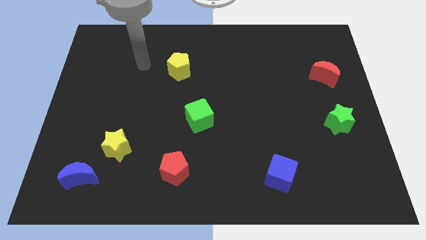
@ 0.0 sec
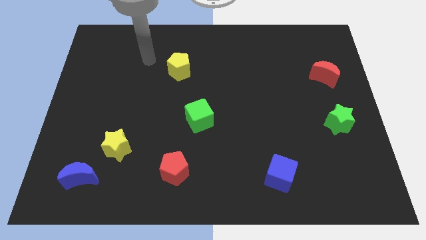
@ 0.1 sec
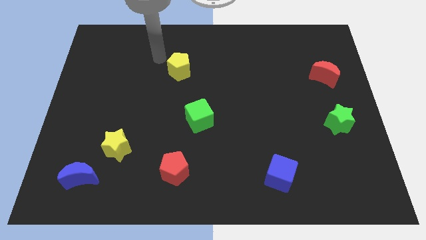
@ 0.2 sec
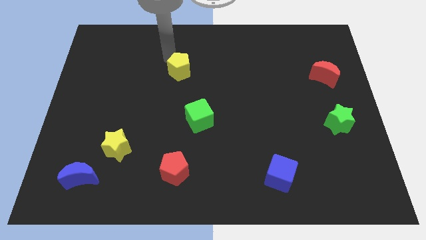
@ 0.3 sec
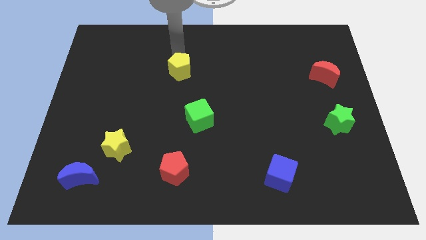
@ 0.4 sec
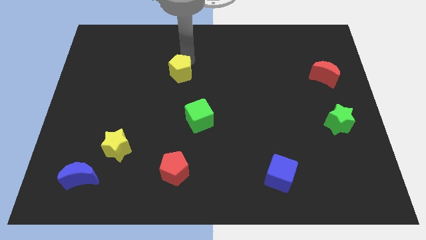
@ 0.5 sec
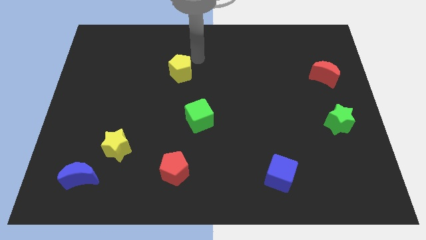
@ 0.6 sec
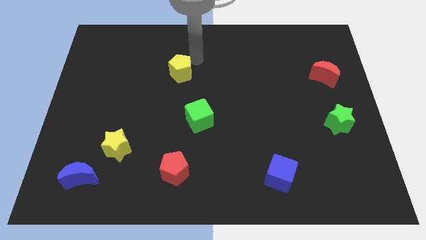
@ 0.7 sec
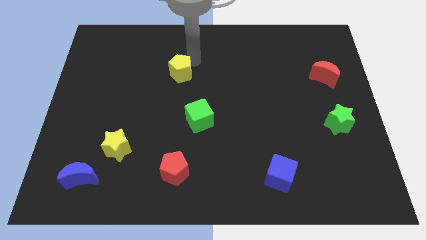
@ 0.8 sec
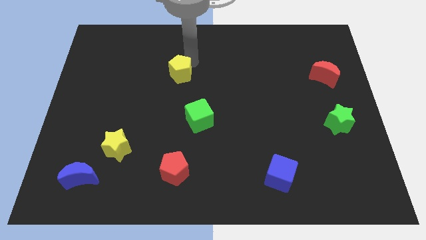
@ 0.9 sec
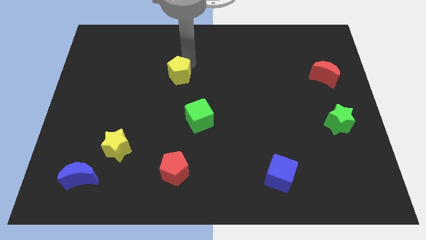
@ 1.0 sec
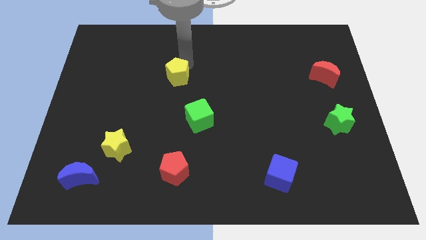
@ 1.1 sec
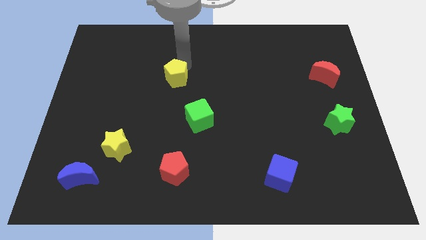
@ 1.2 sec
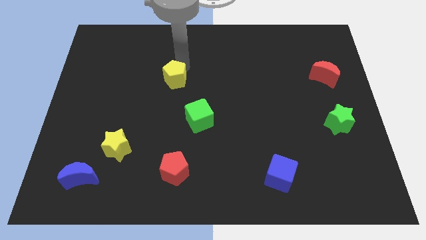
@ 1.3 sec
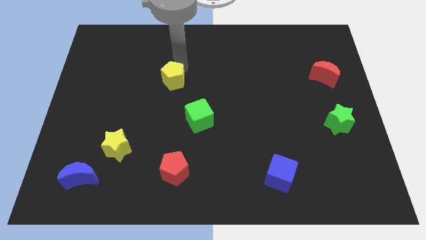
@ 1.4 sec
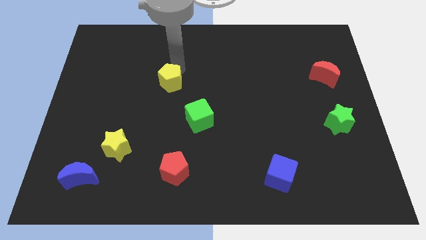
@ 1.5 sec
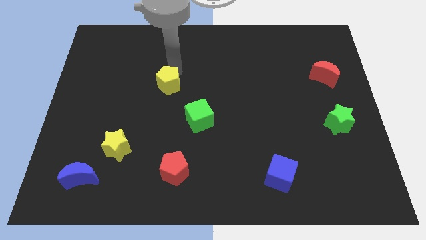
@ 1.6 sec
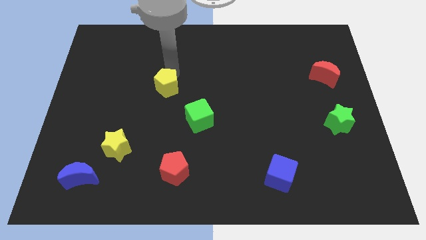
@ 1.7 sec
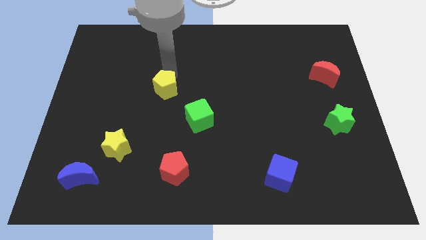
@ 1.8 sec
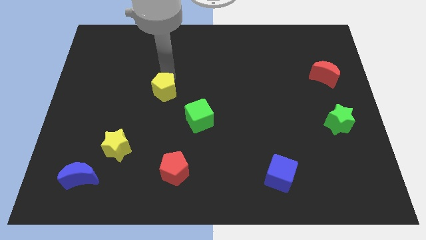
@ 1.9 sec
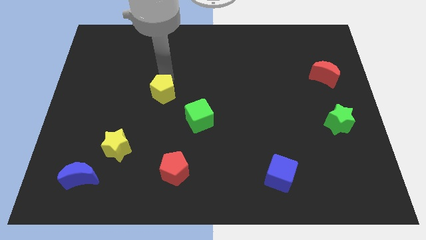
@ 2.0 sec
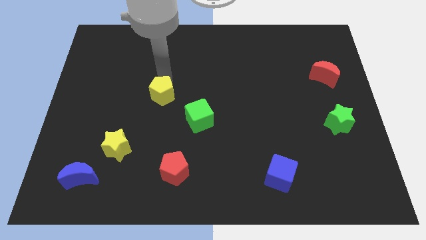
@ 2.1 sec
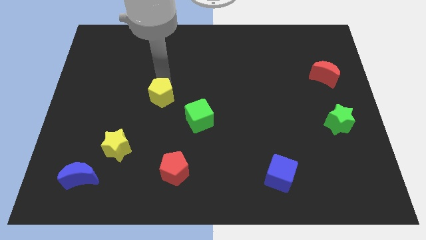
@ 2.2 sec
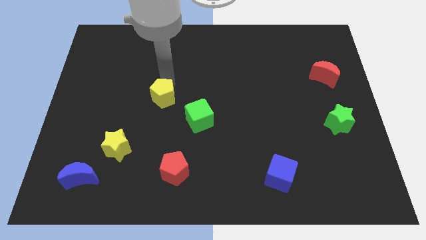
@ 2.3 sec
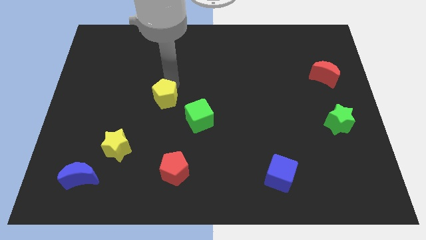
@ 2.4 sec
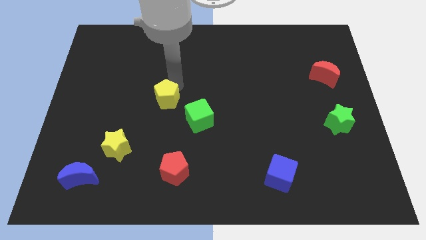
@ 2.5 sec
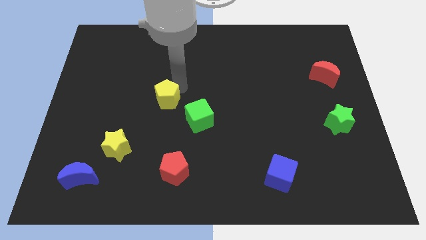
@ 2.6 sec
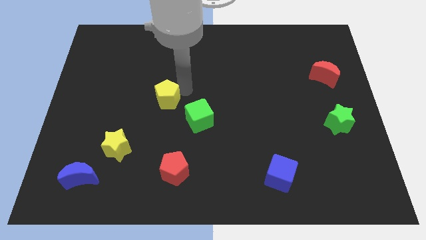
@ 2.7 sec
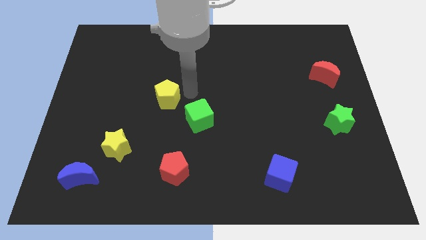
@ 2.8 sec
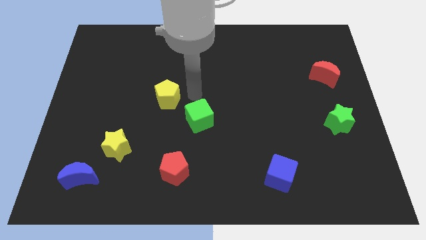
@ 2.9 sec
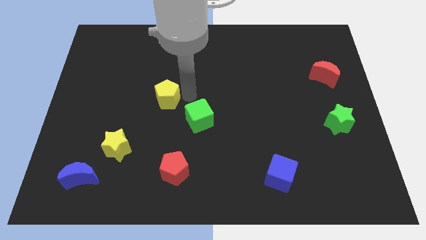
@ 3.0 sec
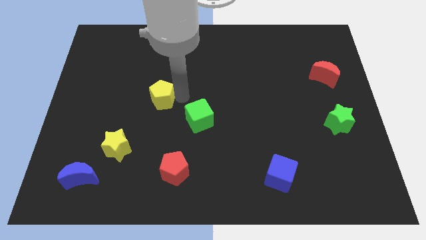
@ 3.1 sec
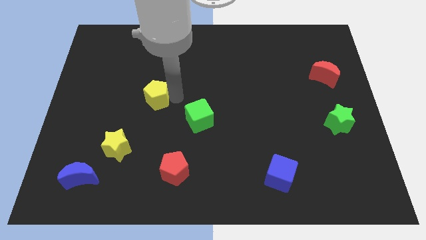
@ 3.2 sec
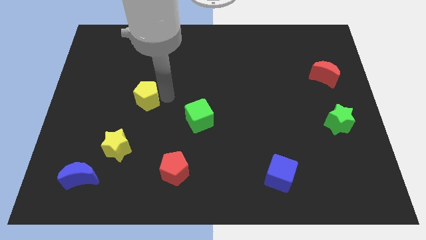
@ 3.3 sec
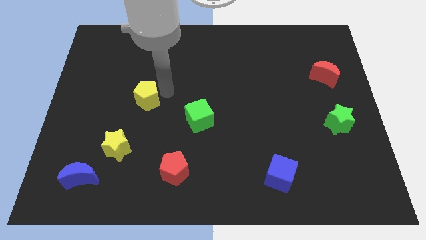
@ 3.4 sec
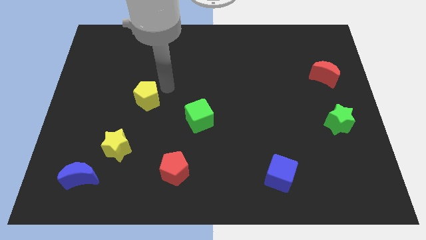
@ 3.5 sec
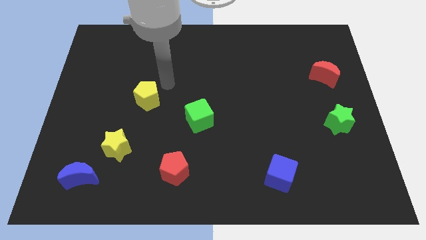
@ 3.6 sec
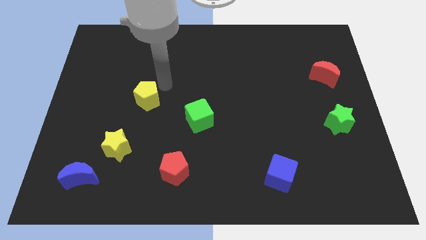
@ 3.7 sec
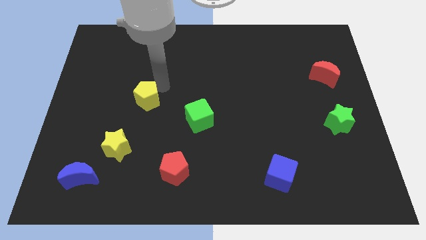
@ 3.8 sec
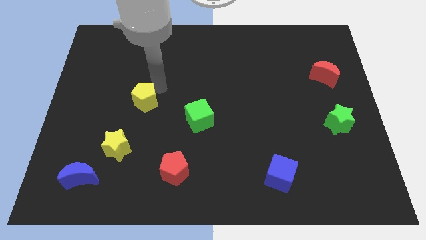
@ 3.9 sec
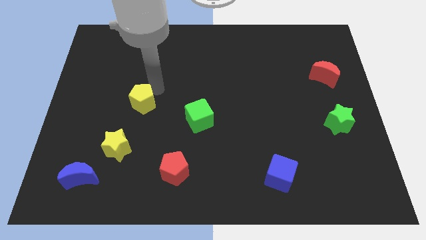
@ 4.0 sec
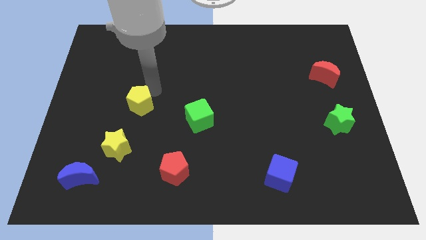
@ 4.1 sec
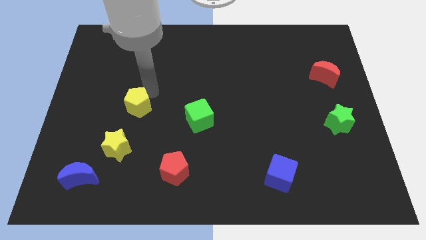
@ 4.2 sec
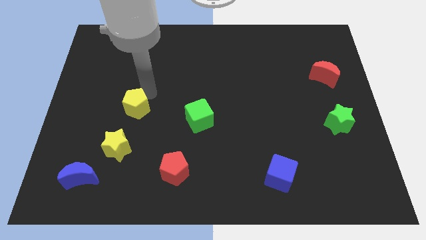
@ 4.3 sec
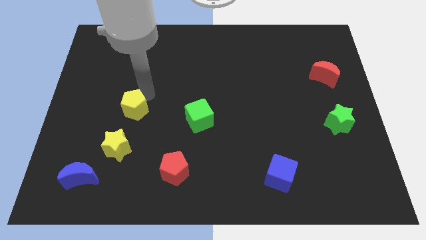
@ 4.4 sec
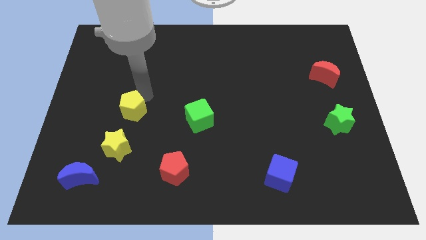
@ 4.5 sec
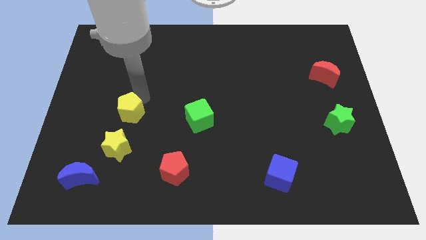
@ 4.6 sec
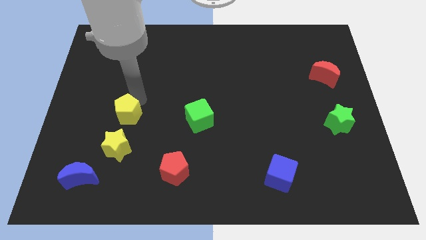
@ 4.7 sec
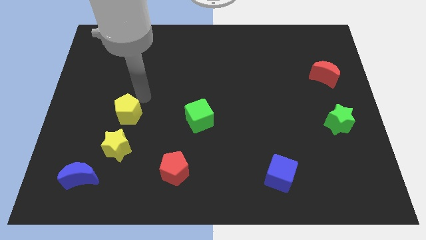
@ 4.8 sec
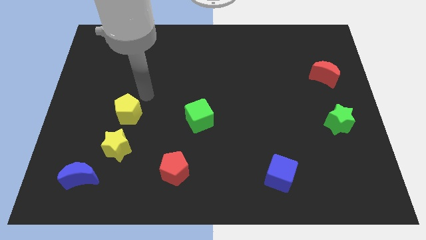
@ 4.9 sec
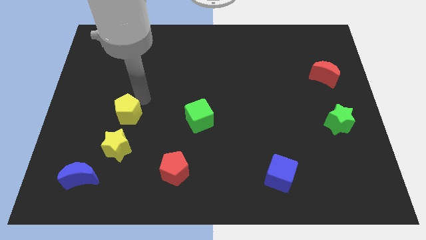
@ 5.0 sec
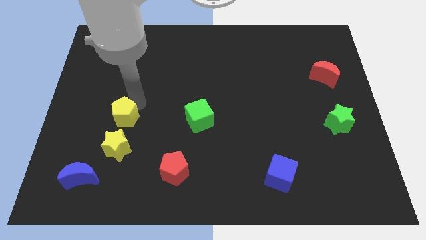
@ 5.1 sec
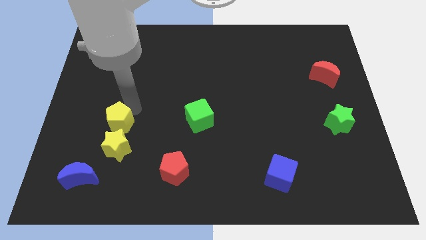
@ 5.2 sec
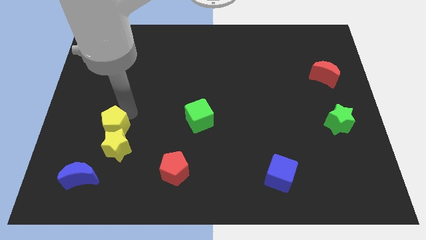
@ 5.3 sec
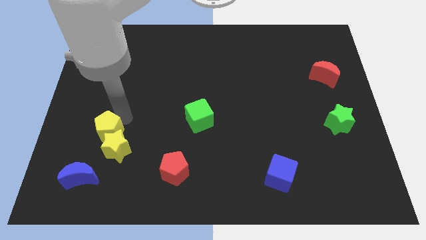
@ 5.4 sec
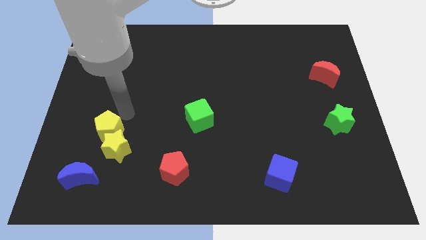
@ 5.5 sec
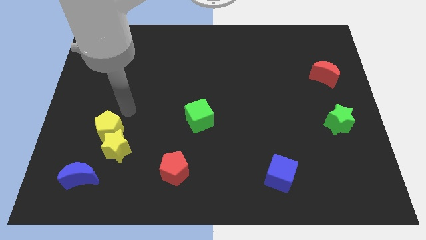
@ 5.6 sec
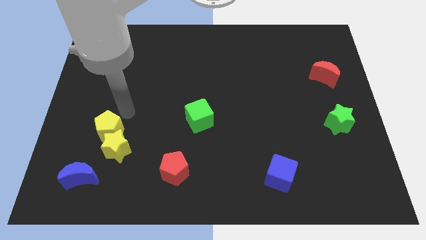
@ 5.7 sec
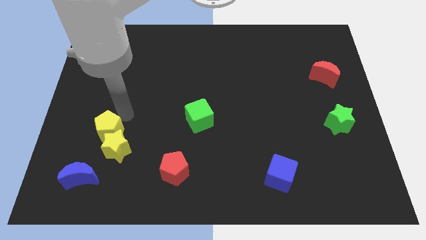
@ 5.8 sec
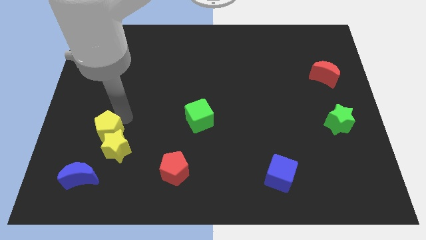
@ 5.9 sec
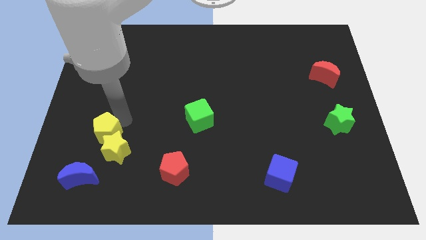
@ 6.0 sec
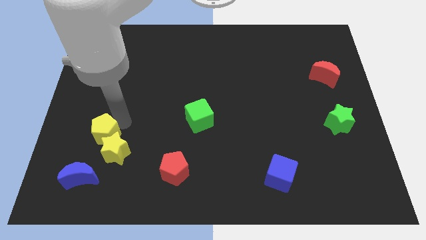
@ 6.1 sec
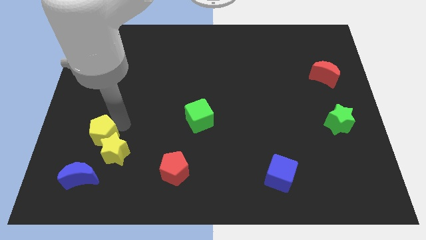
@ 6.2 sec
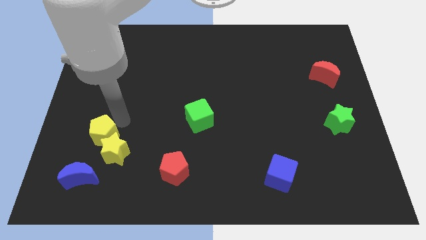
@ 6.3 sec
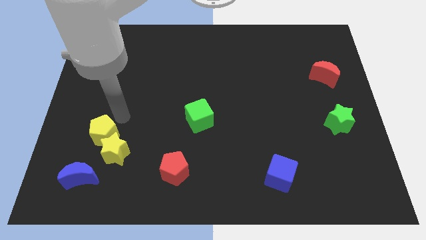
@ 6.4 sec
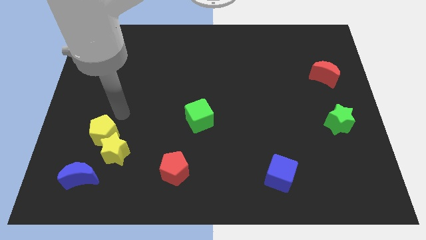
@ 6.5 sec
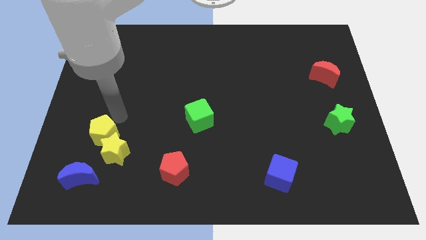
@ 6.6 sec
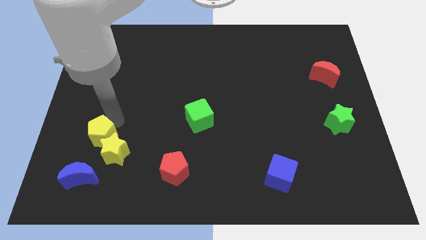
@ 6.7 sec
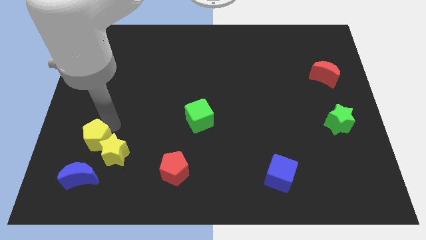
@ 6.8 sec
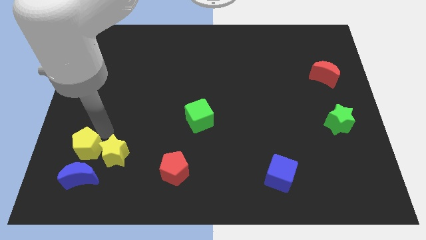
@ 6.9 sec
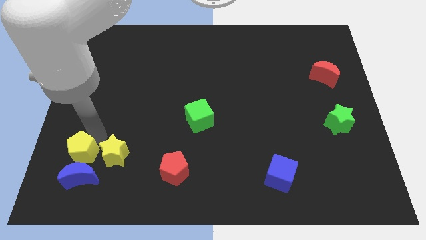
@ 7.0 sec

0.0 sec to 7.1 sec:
put the yellow pentagon towards the blue moon

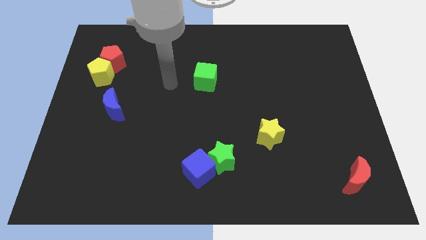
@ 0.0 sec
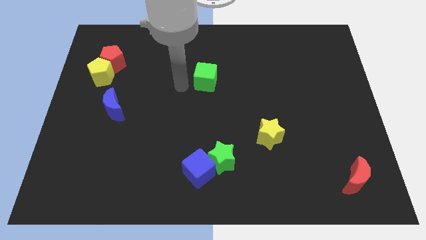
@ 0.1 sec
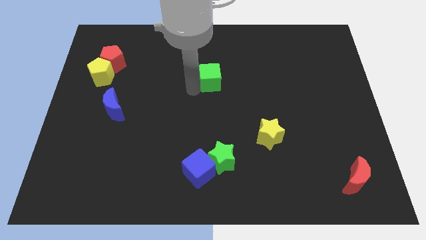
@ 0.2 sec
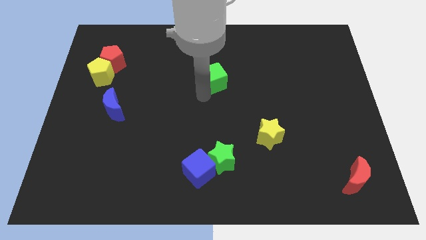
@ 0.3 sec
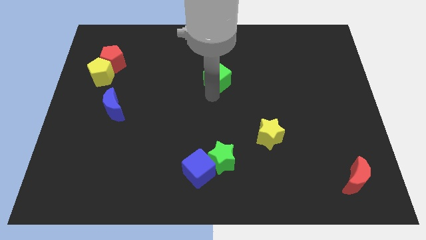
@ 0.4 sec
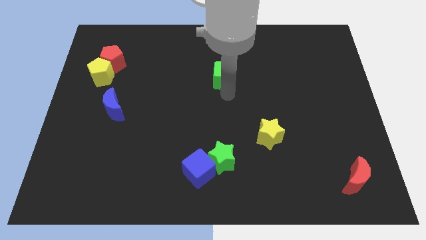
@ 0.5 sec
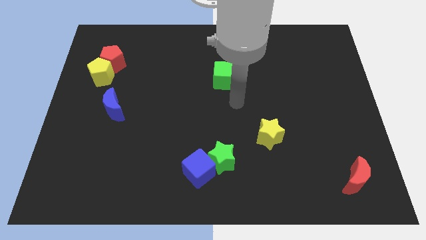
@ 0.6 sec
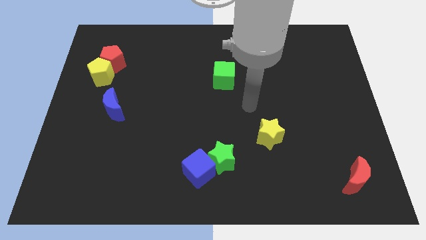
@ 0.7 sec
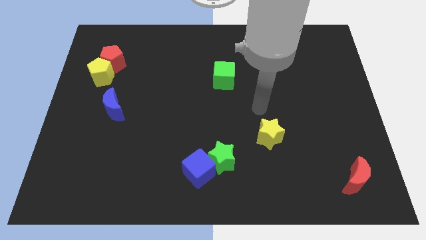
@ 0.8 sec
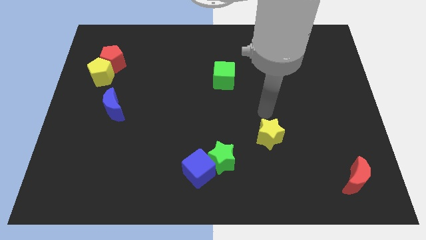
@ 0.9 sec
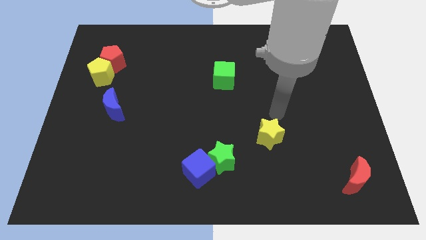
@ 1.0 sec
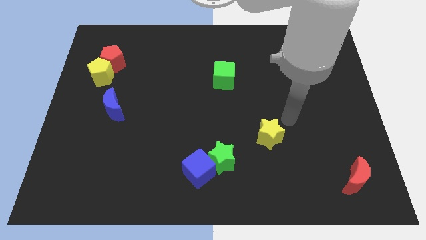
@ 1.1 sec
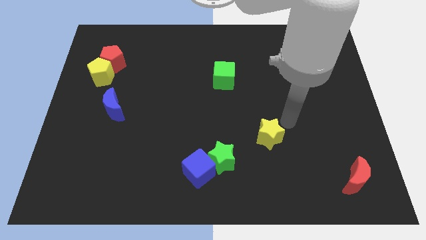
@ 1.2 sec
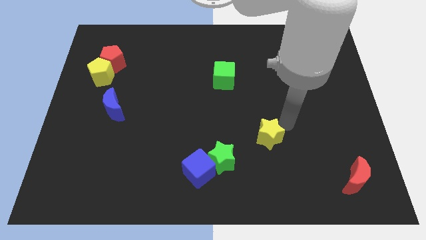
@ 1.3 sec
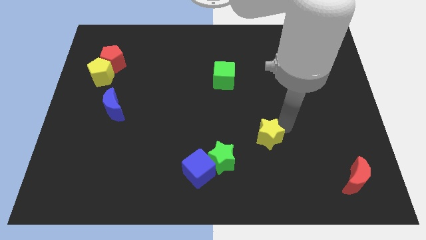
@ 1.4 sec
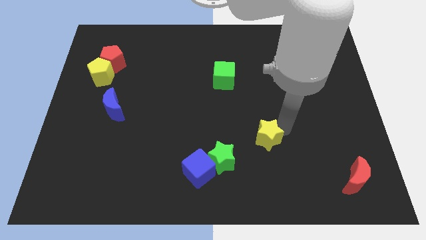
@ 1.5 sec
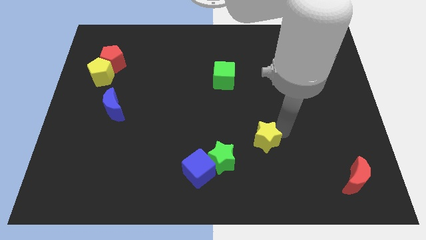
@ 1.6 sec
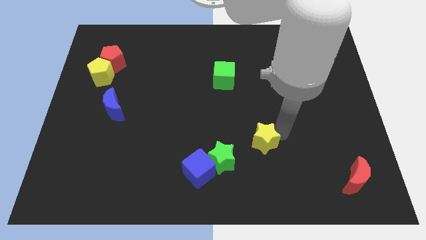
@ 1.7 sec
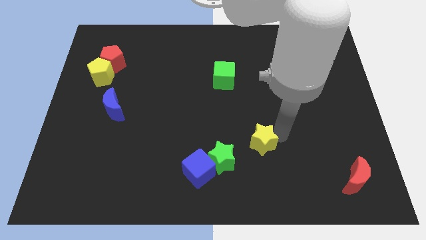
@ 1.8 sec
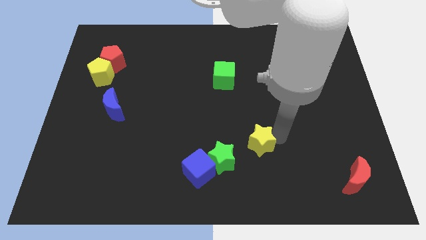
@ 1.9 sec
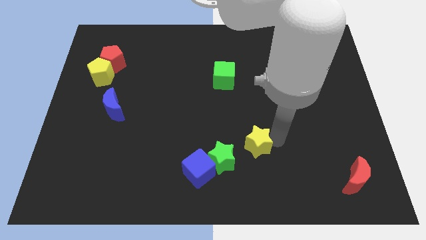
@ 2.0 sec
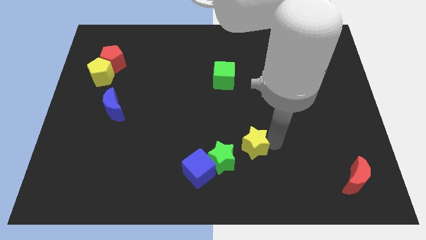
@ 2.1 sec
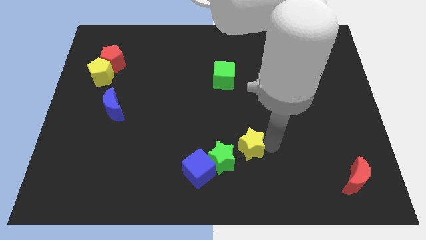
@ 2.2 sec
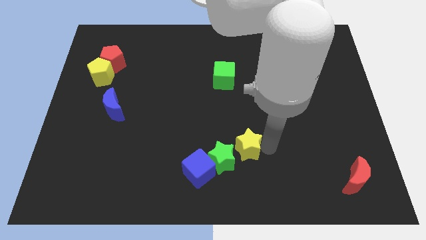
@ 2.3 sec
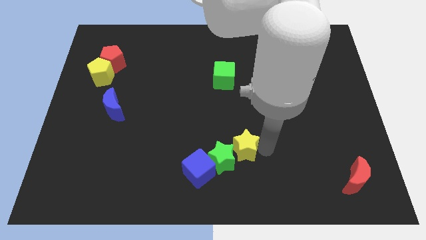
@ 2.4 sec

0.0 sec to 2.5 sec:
slide the yellow star close to the green star
